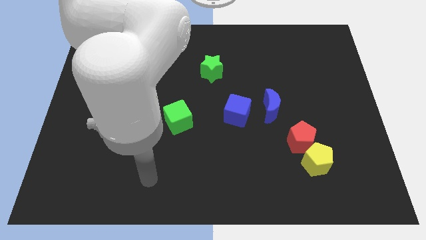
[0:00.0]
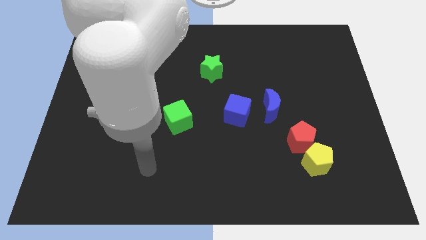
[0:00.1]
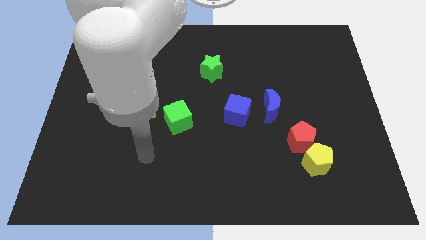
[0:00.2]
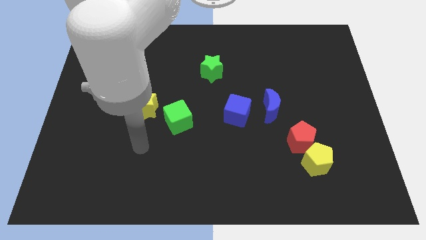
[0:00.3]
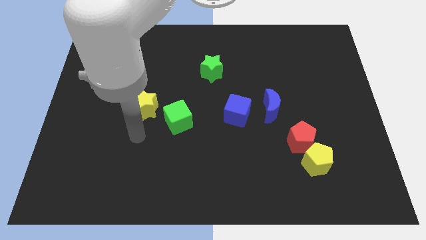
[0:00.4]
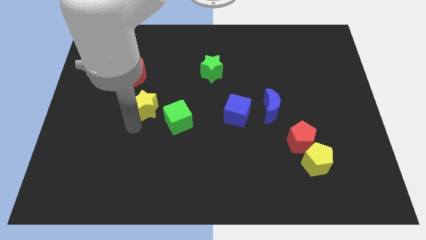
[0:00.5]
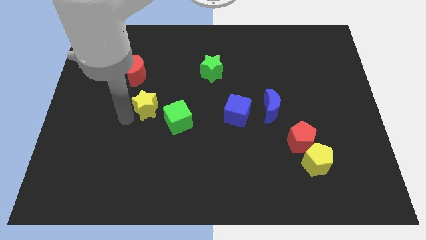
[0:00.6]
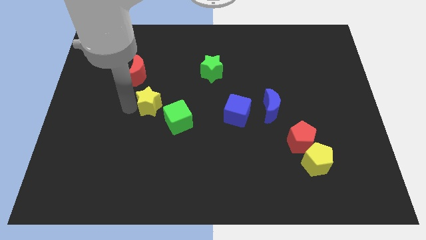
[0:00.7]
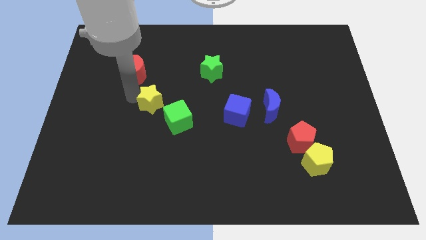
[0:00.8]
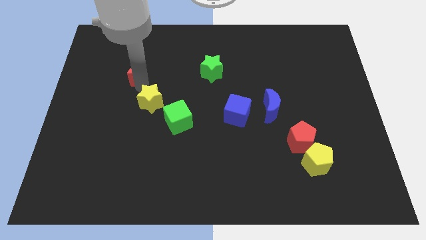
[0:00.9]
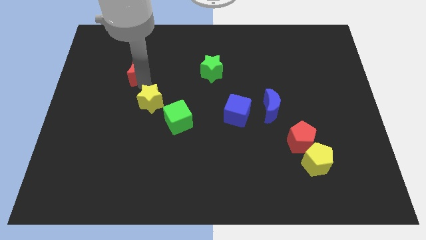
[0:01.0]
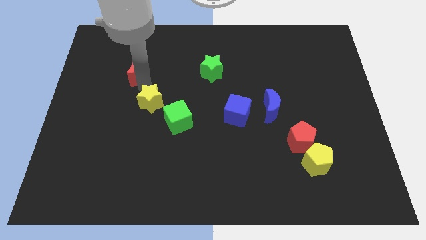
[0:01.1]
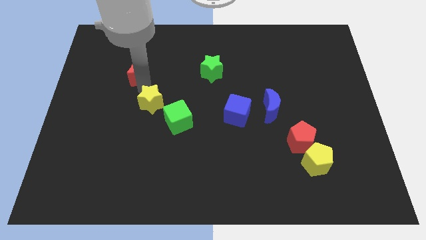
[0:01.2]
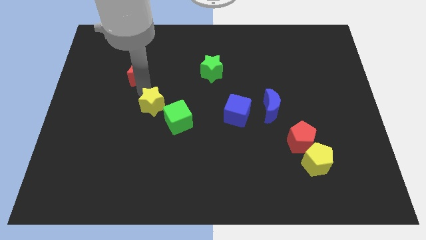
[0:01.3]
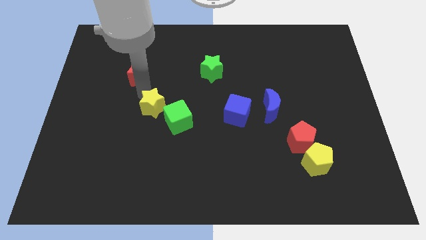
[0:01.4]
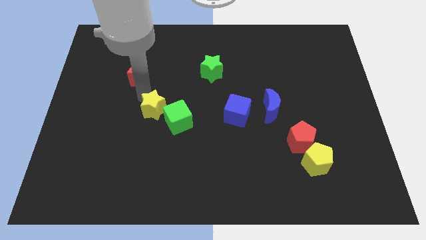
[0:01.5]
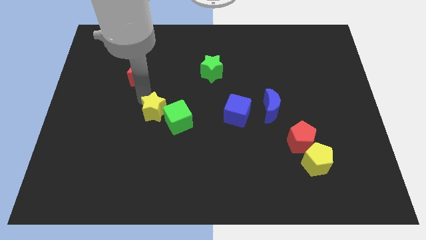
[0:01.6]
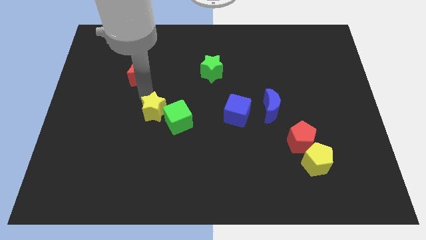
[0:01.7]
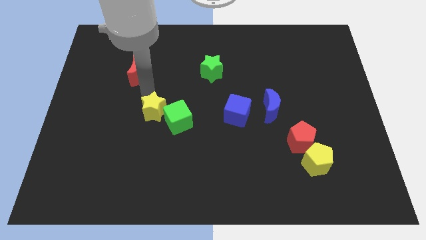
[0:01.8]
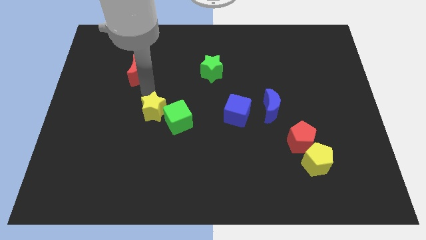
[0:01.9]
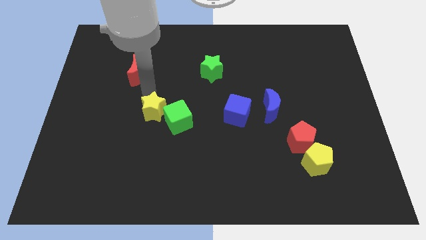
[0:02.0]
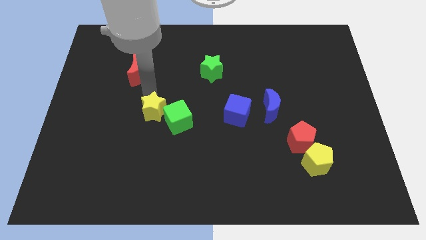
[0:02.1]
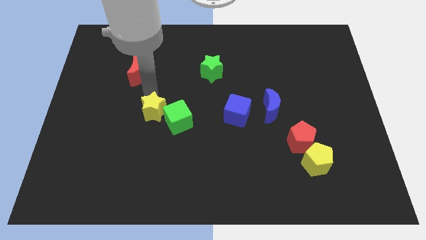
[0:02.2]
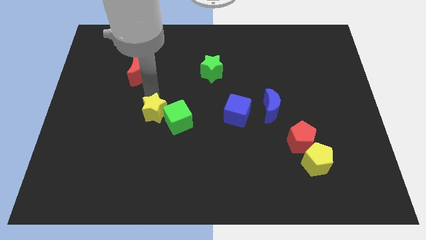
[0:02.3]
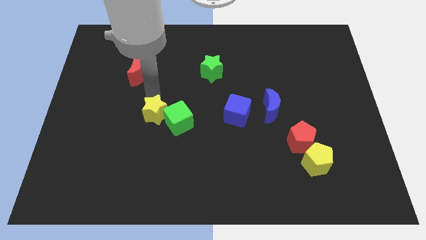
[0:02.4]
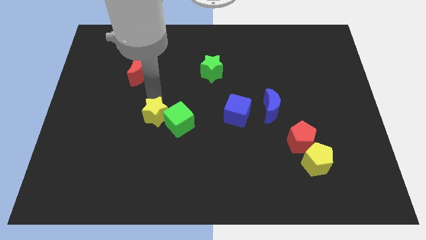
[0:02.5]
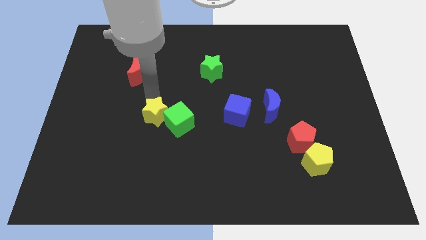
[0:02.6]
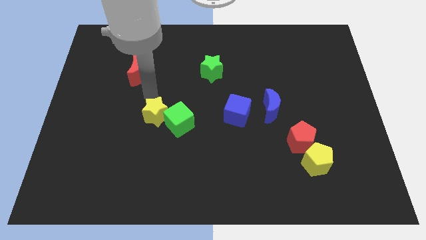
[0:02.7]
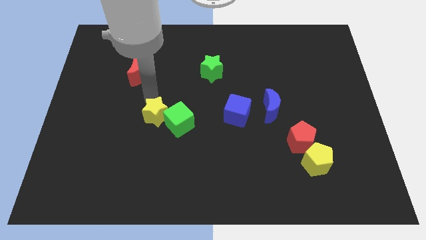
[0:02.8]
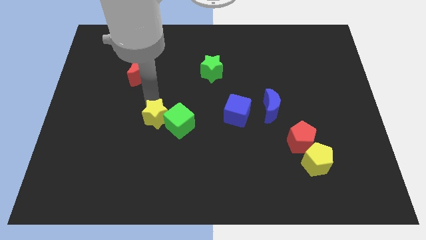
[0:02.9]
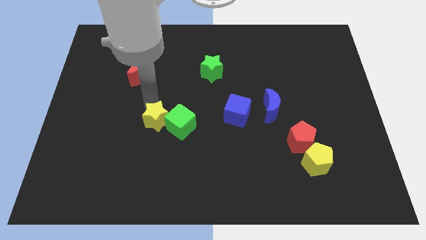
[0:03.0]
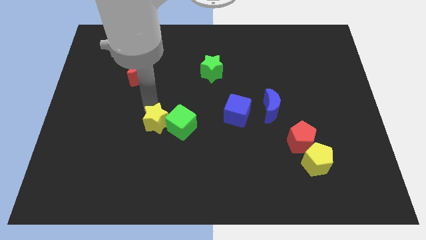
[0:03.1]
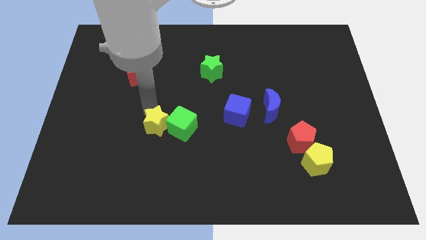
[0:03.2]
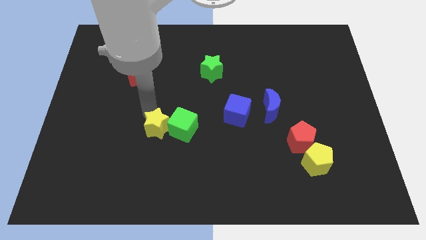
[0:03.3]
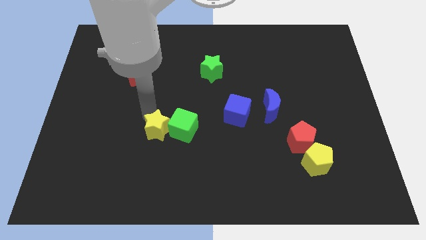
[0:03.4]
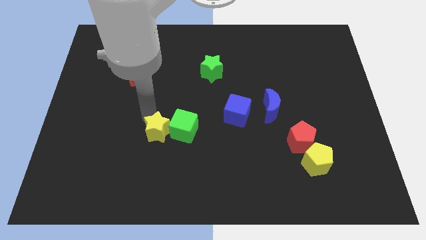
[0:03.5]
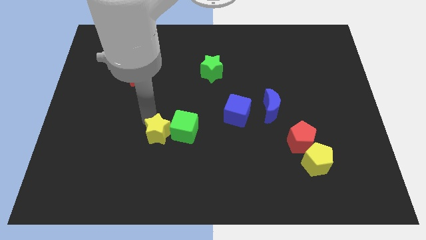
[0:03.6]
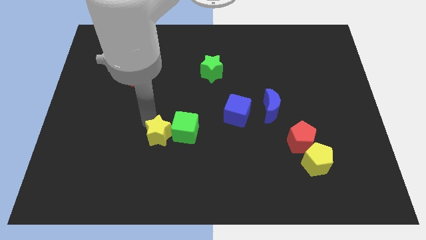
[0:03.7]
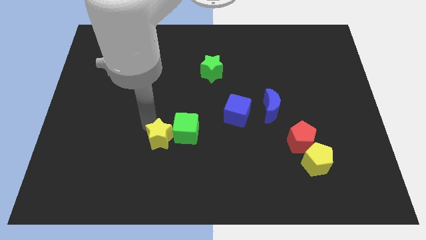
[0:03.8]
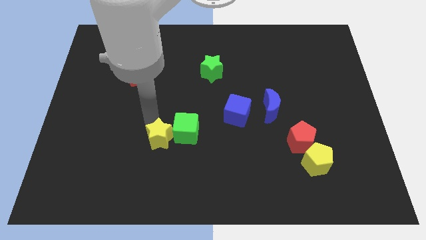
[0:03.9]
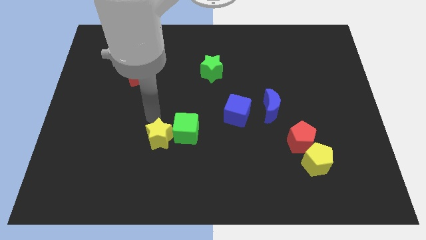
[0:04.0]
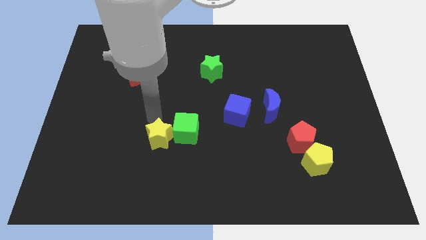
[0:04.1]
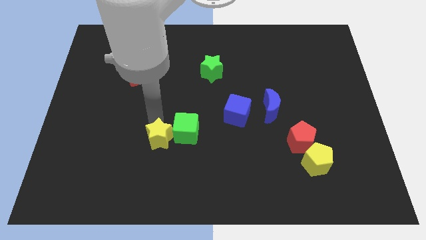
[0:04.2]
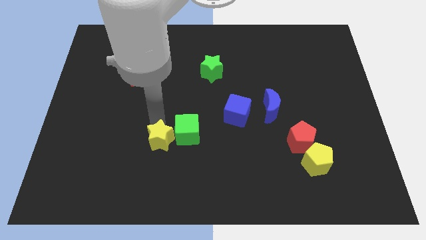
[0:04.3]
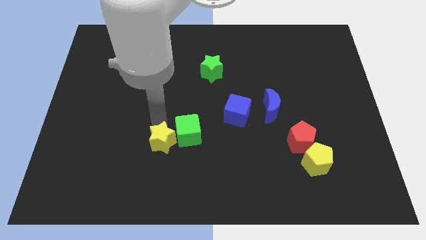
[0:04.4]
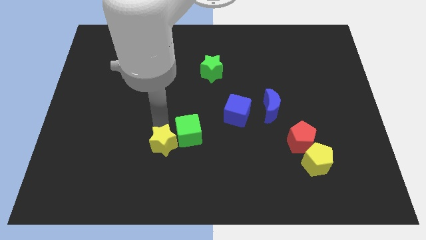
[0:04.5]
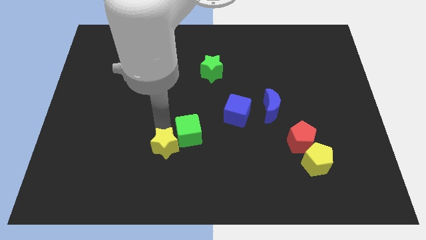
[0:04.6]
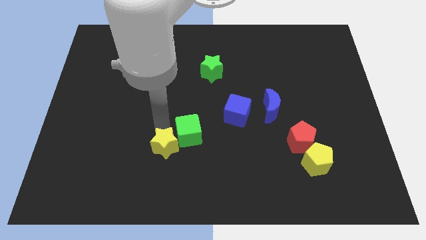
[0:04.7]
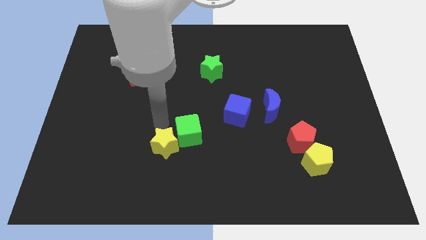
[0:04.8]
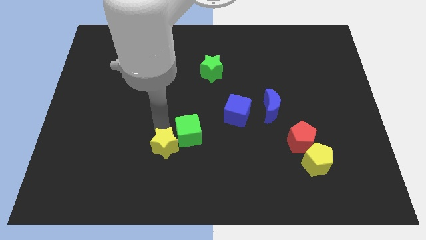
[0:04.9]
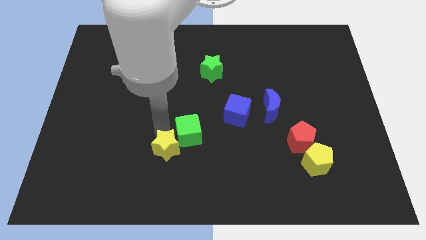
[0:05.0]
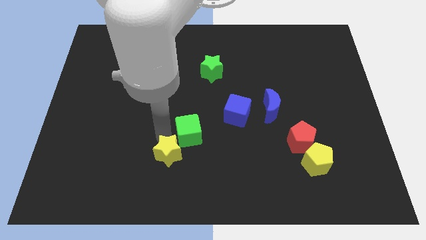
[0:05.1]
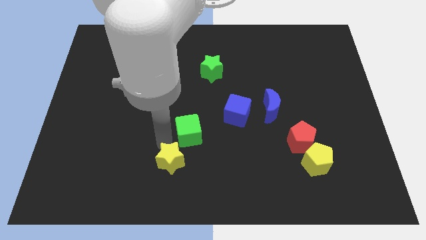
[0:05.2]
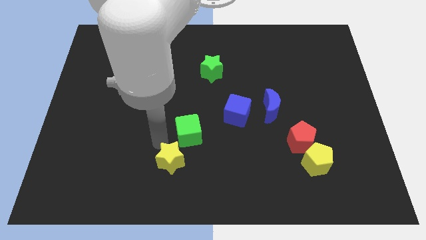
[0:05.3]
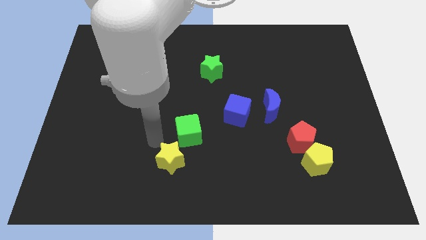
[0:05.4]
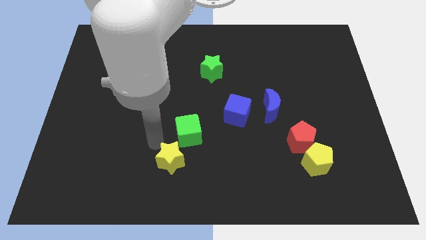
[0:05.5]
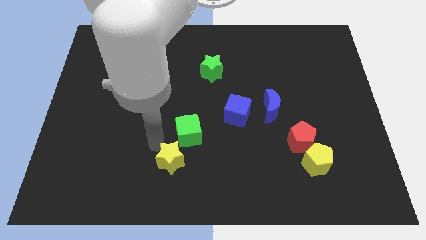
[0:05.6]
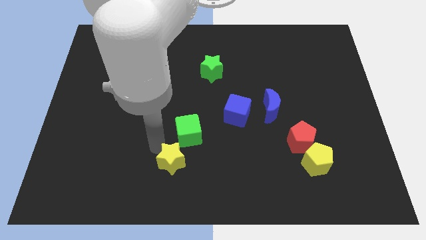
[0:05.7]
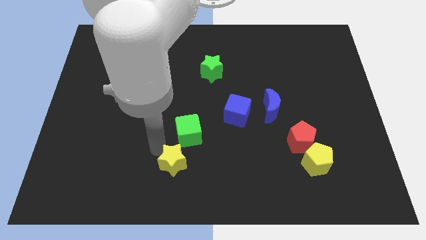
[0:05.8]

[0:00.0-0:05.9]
move the yellow star to the bottom side

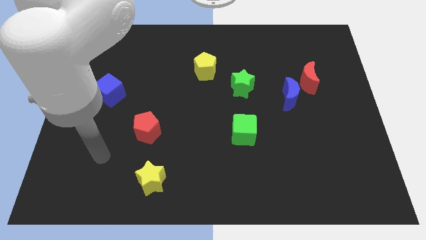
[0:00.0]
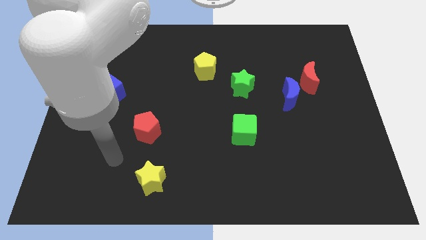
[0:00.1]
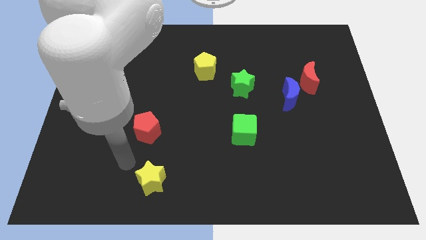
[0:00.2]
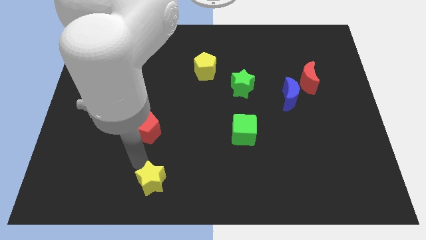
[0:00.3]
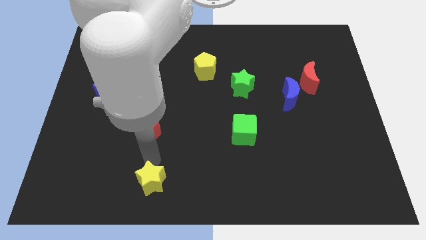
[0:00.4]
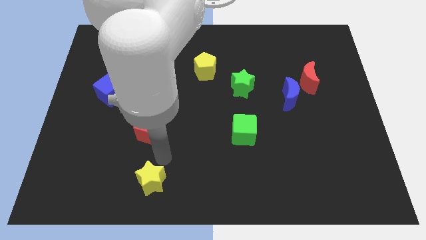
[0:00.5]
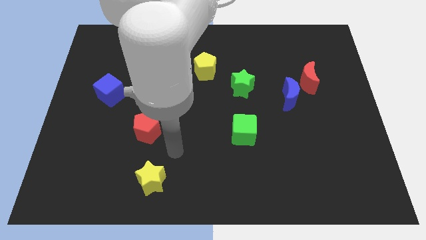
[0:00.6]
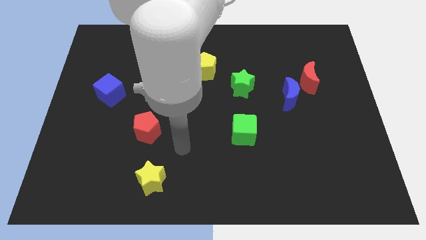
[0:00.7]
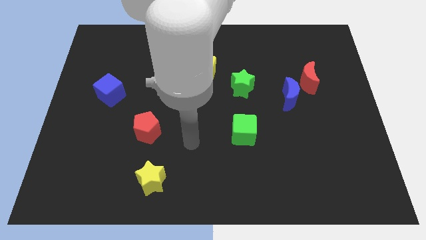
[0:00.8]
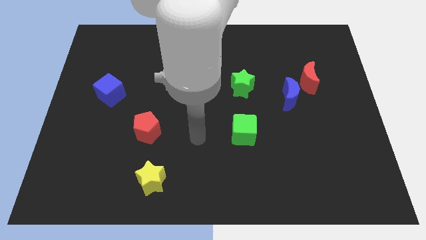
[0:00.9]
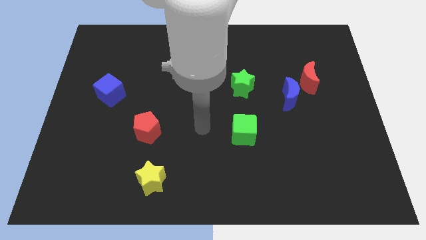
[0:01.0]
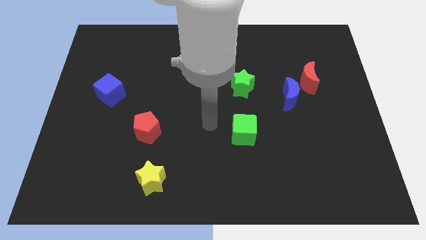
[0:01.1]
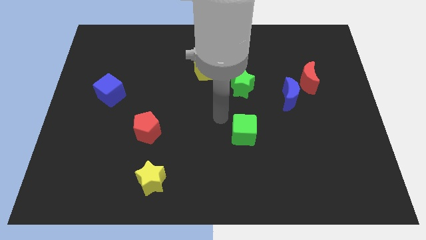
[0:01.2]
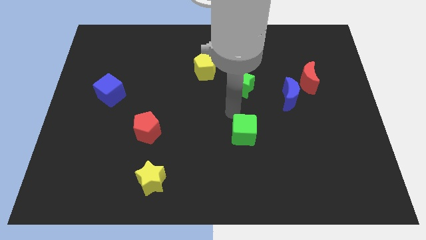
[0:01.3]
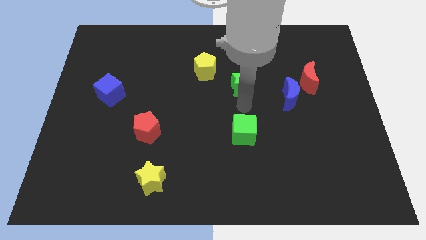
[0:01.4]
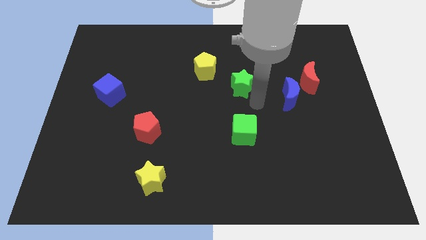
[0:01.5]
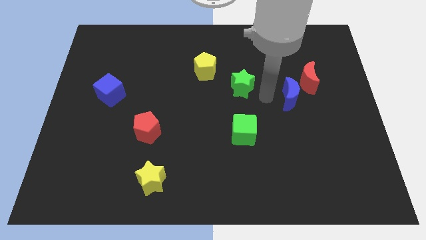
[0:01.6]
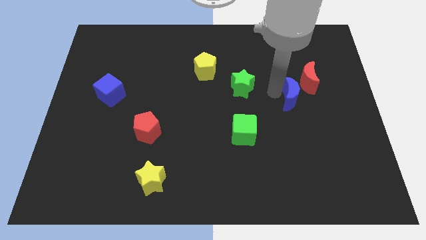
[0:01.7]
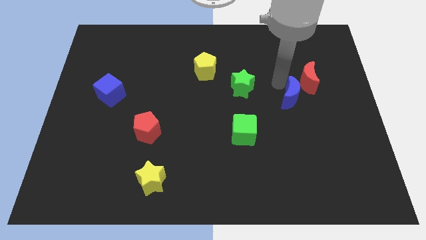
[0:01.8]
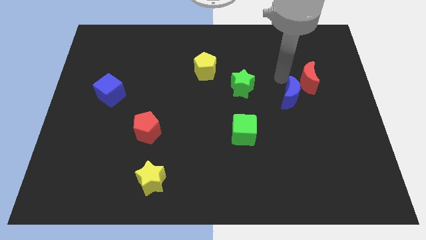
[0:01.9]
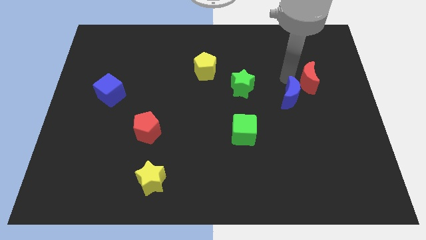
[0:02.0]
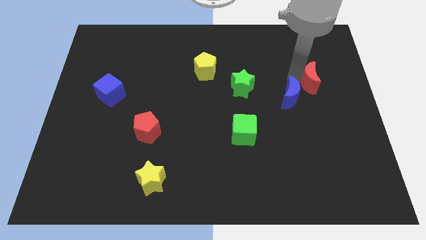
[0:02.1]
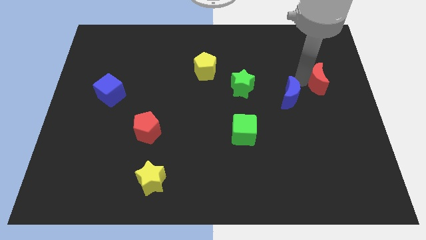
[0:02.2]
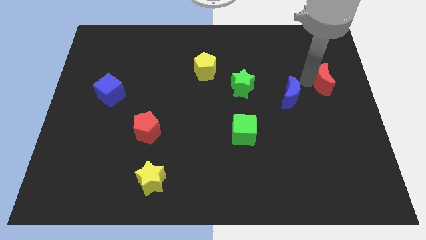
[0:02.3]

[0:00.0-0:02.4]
move the red moon to the right side
